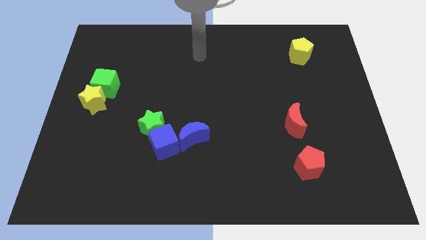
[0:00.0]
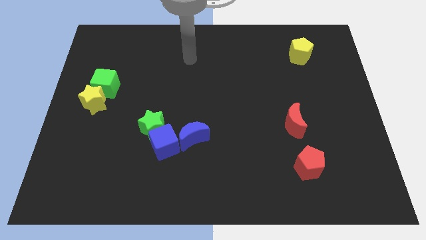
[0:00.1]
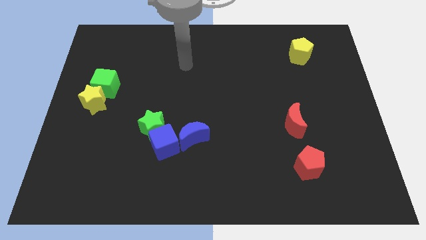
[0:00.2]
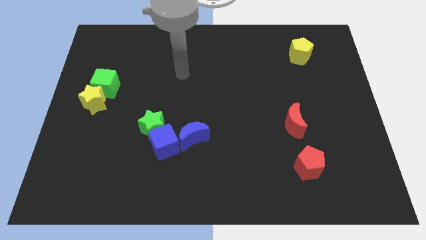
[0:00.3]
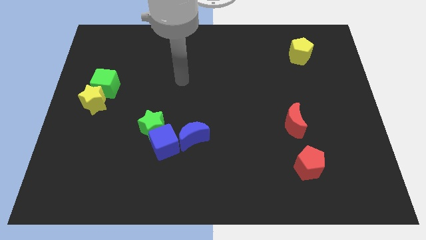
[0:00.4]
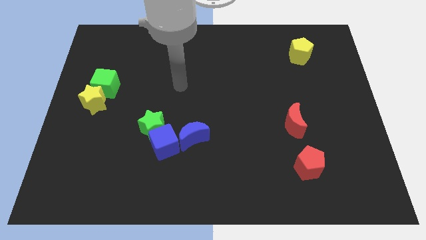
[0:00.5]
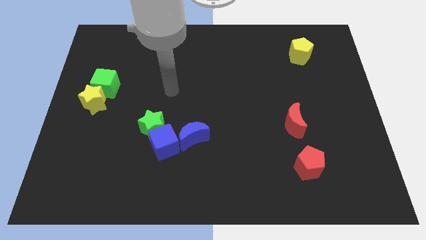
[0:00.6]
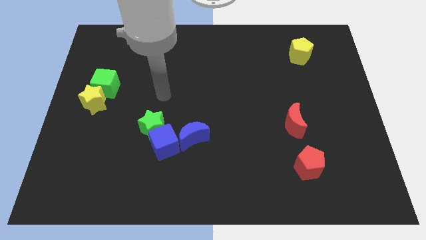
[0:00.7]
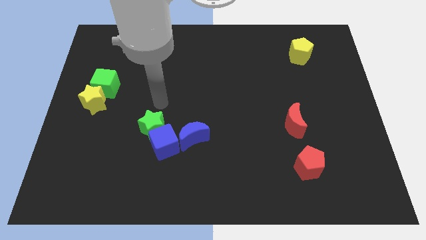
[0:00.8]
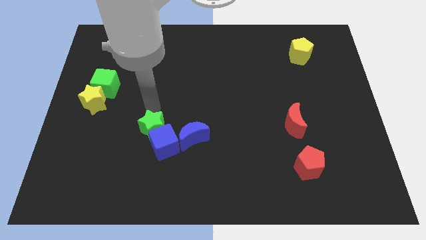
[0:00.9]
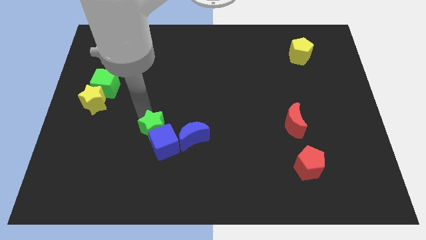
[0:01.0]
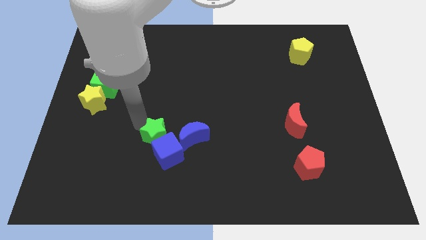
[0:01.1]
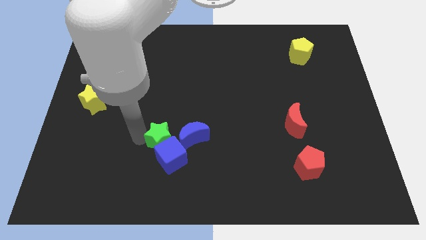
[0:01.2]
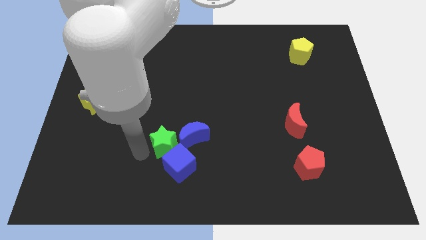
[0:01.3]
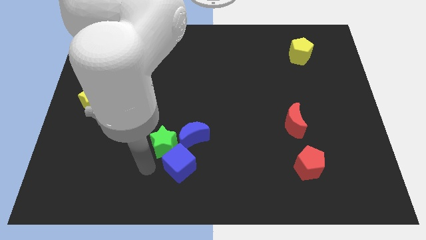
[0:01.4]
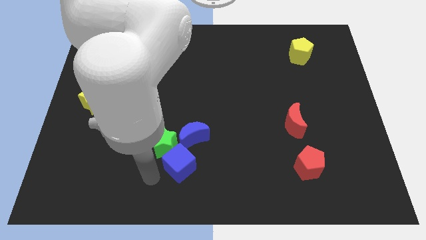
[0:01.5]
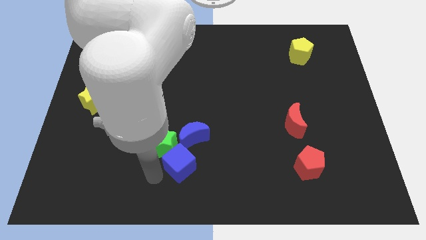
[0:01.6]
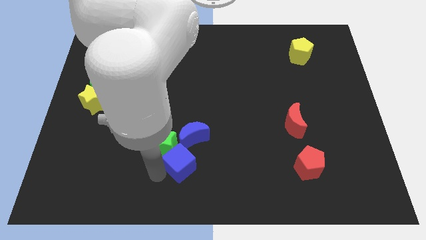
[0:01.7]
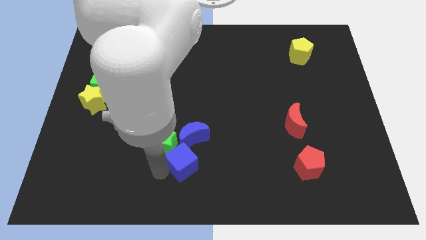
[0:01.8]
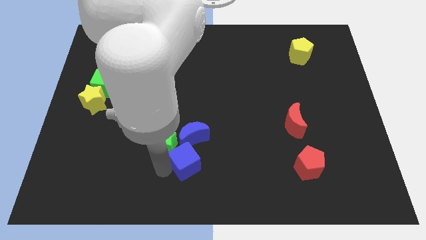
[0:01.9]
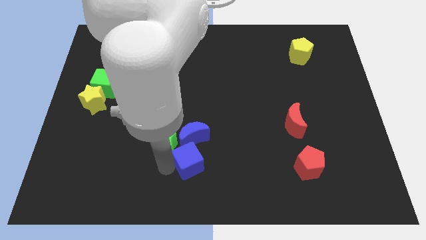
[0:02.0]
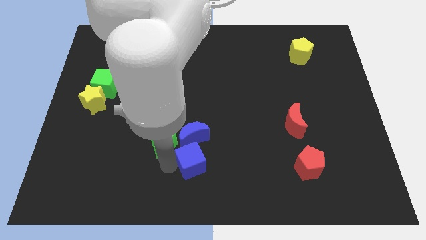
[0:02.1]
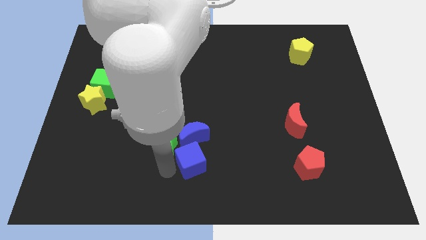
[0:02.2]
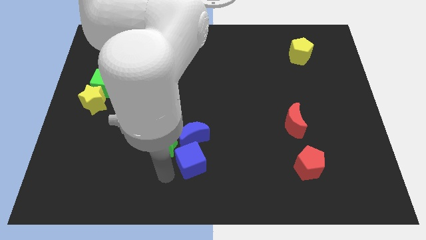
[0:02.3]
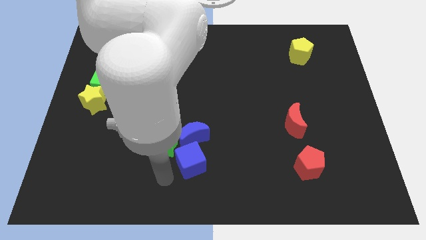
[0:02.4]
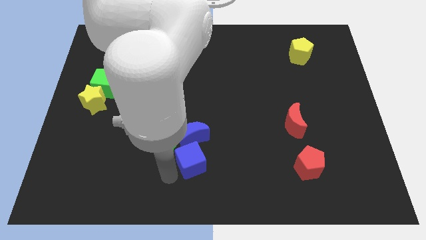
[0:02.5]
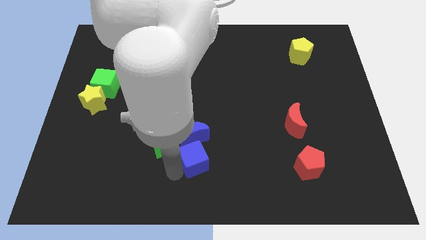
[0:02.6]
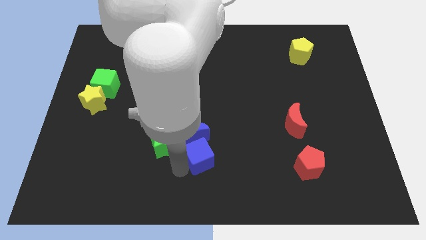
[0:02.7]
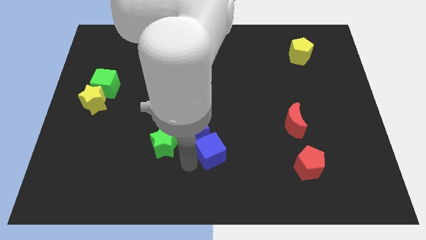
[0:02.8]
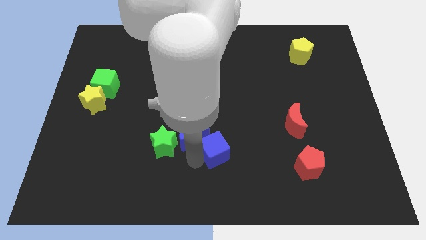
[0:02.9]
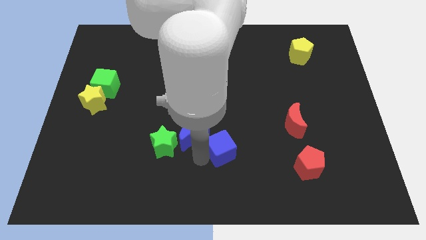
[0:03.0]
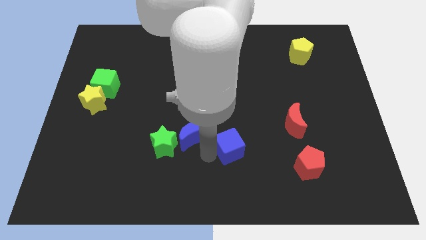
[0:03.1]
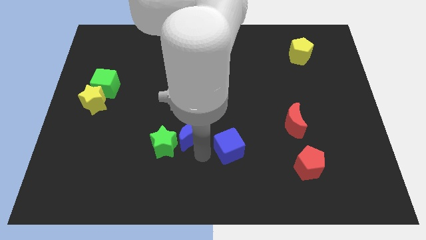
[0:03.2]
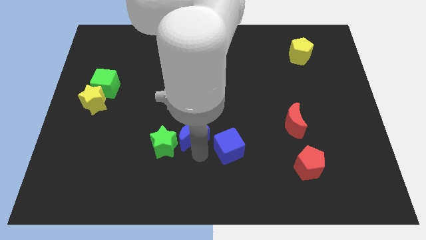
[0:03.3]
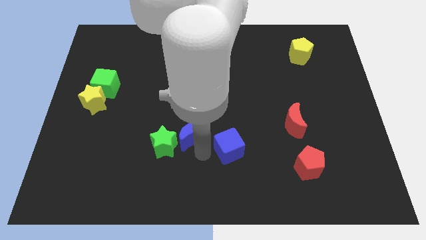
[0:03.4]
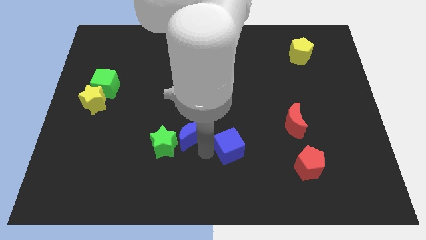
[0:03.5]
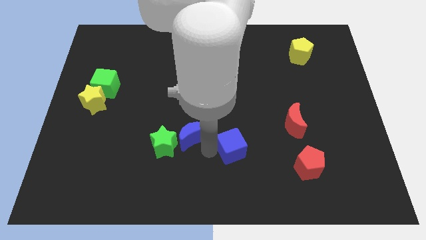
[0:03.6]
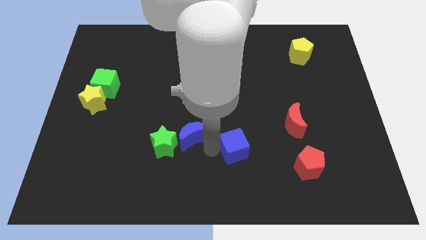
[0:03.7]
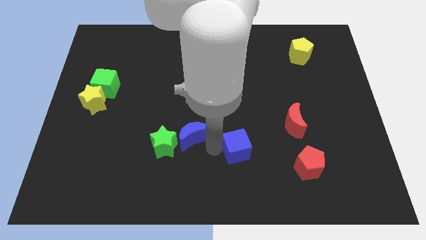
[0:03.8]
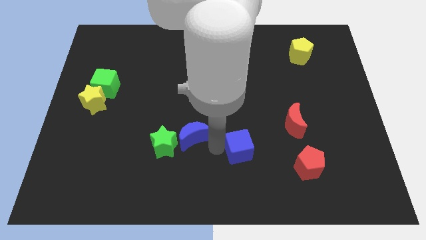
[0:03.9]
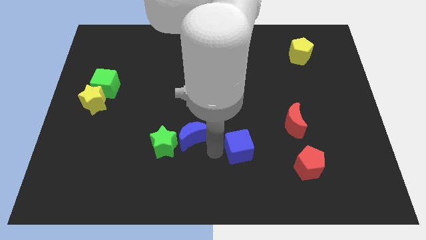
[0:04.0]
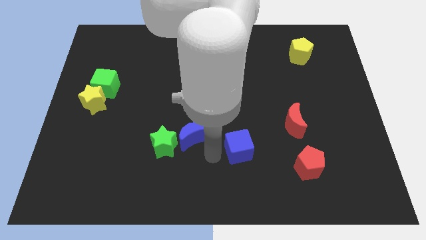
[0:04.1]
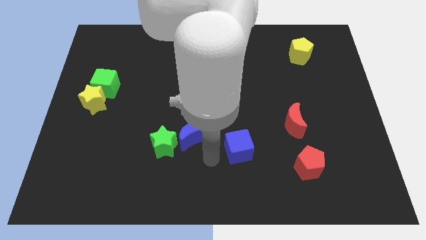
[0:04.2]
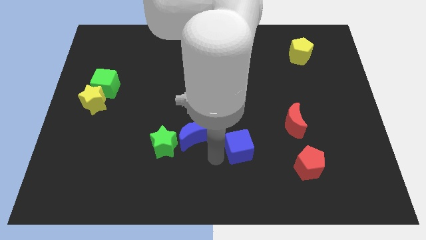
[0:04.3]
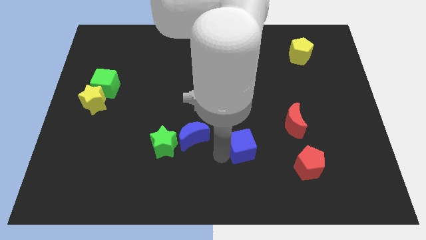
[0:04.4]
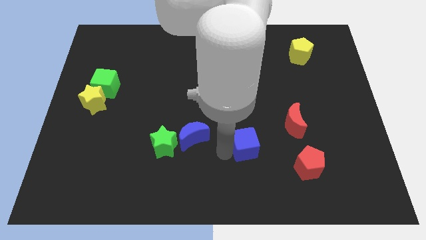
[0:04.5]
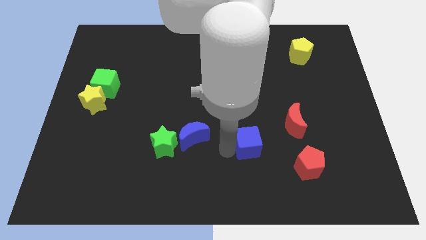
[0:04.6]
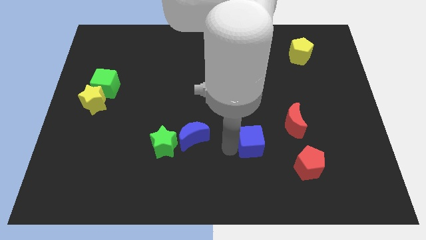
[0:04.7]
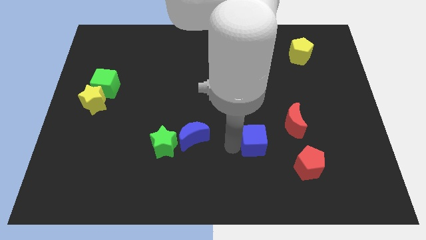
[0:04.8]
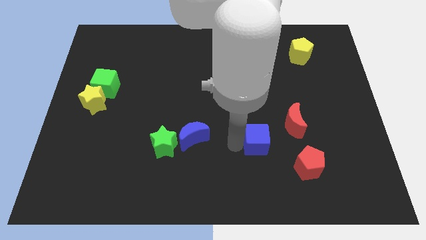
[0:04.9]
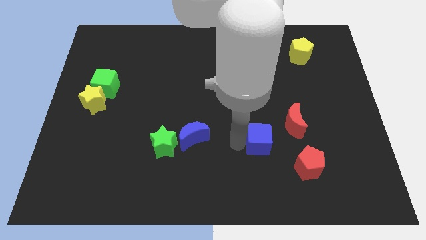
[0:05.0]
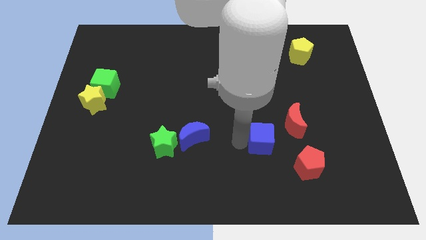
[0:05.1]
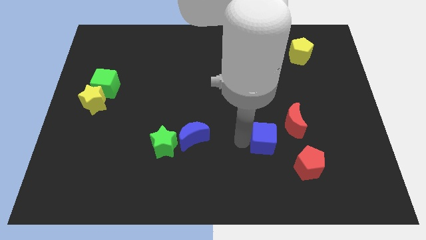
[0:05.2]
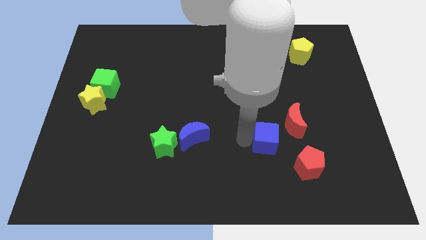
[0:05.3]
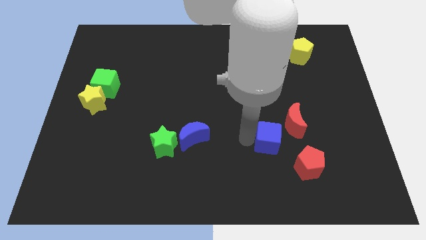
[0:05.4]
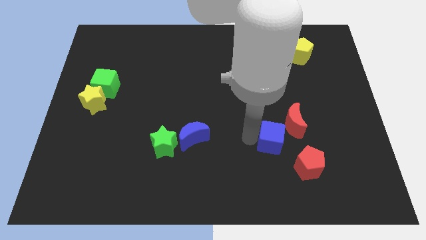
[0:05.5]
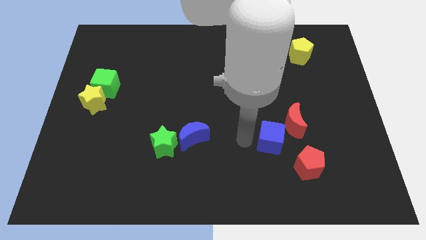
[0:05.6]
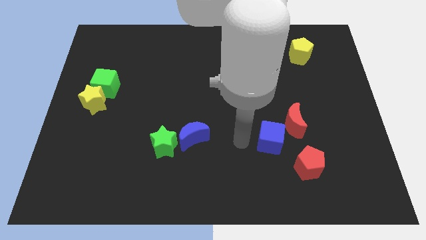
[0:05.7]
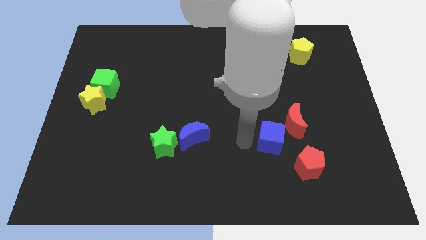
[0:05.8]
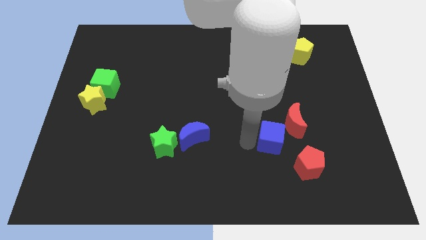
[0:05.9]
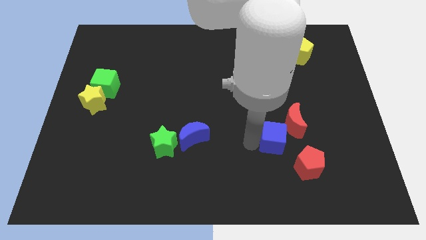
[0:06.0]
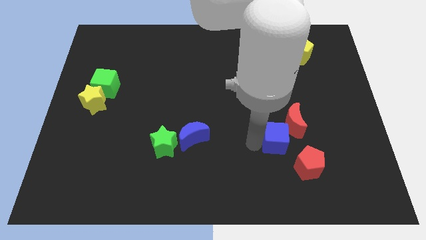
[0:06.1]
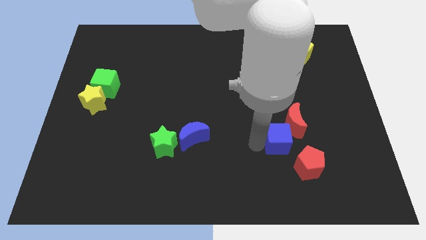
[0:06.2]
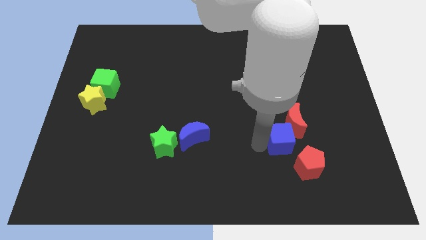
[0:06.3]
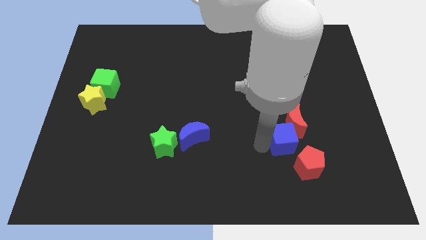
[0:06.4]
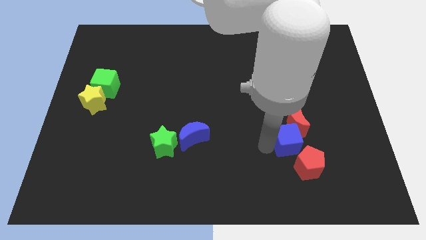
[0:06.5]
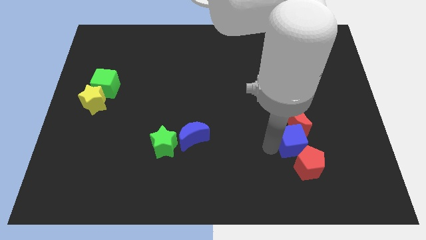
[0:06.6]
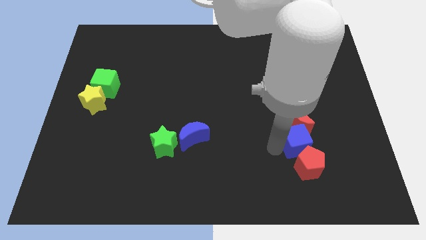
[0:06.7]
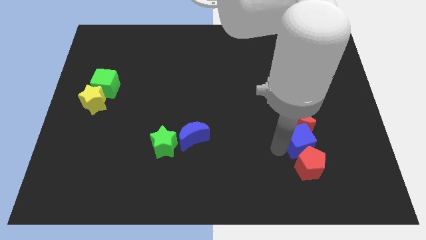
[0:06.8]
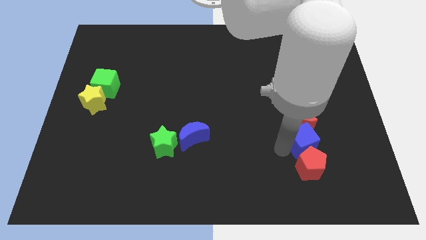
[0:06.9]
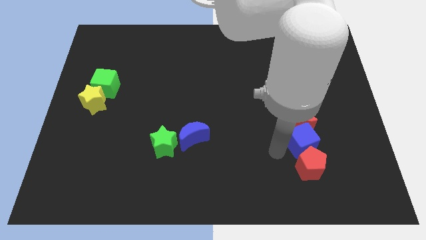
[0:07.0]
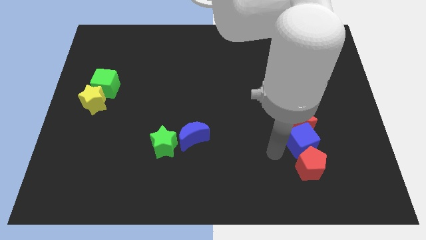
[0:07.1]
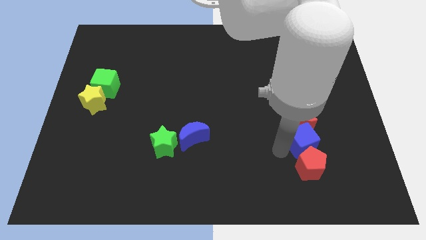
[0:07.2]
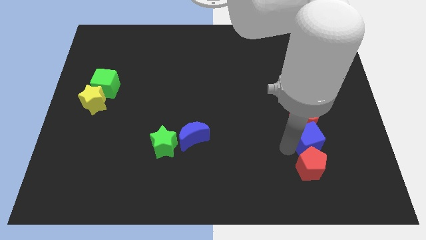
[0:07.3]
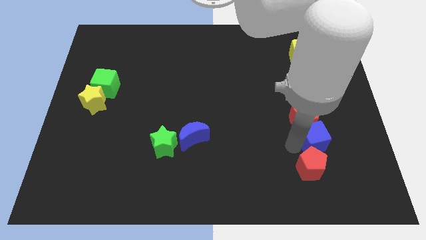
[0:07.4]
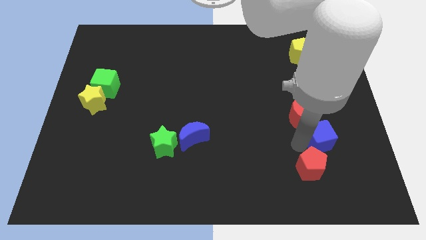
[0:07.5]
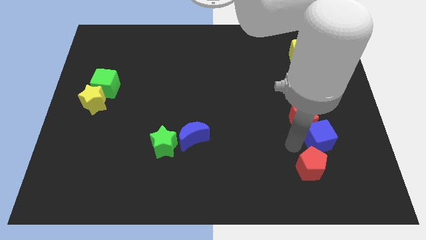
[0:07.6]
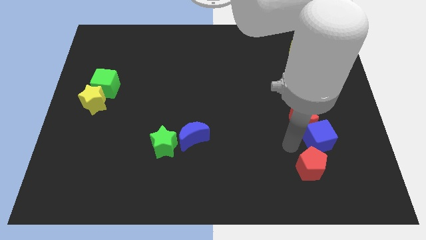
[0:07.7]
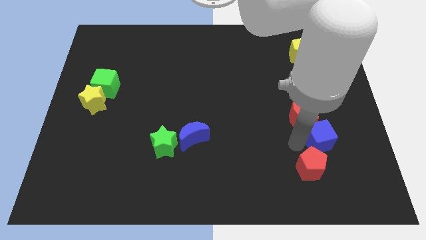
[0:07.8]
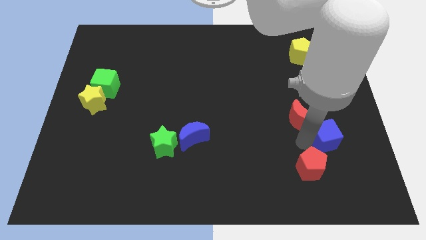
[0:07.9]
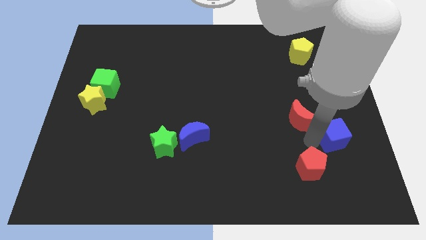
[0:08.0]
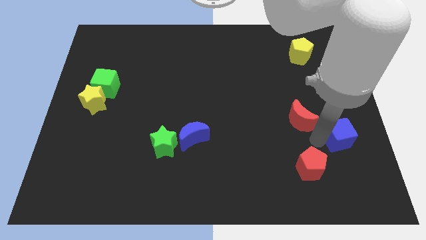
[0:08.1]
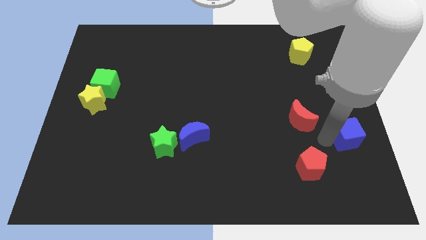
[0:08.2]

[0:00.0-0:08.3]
move the blue cube to the right side of the board

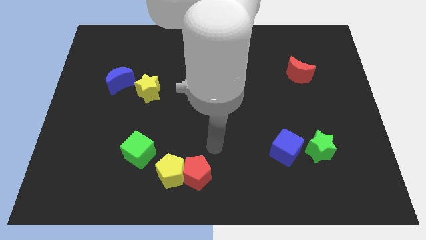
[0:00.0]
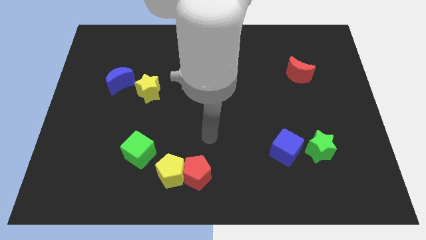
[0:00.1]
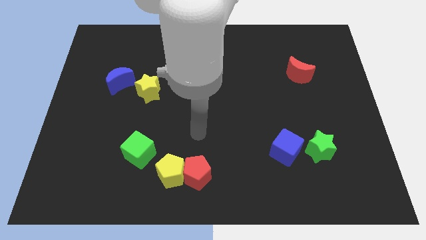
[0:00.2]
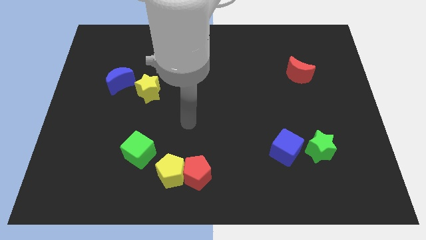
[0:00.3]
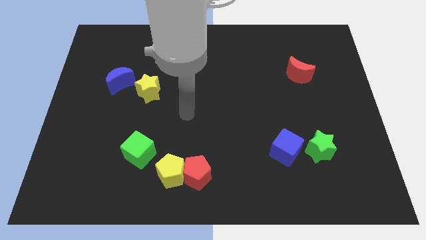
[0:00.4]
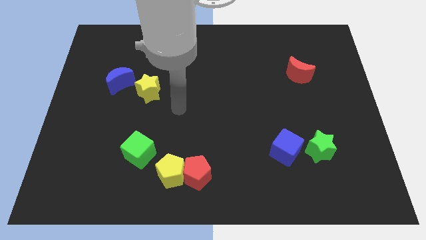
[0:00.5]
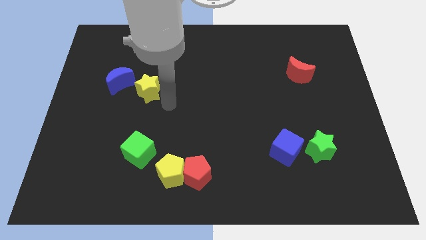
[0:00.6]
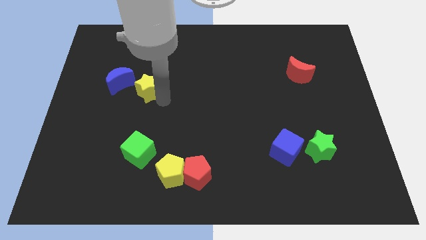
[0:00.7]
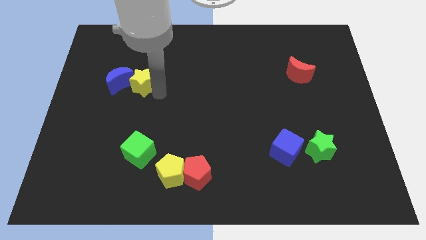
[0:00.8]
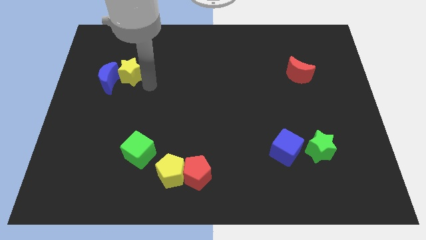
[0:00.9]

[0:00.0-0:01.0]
move the blue moon to the left side
